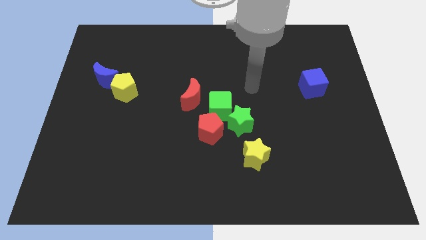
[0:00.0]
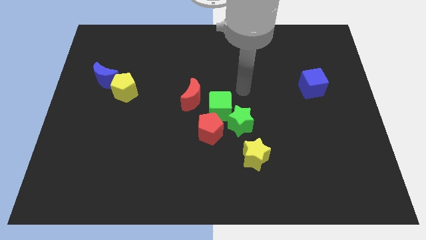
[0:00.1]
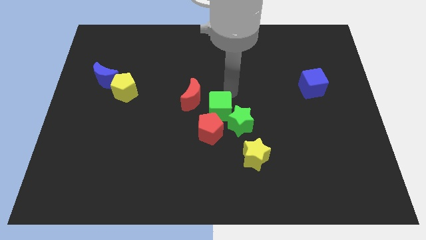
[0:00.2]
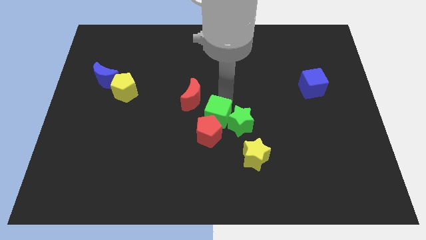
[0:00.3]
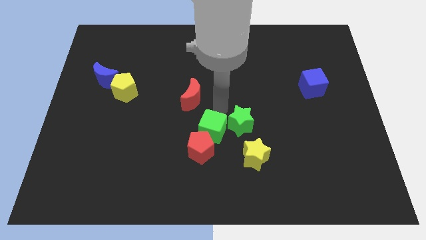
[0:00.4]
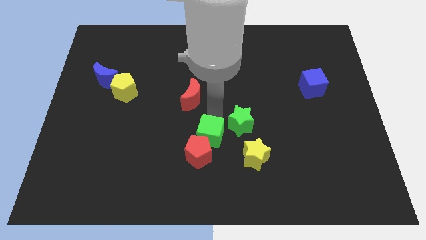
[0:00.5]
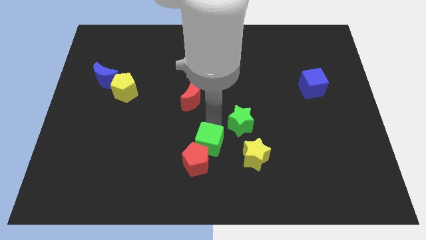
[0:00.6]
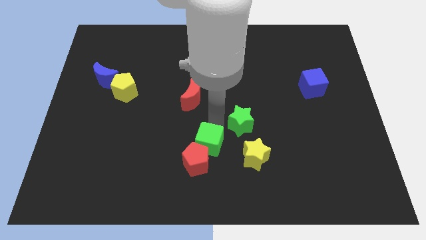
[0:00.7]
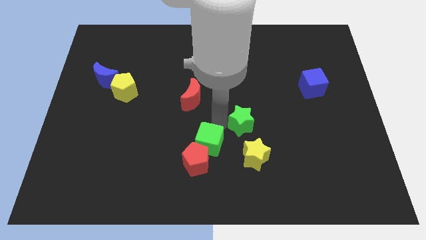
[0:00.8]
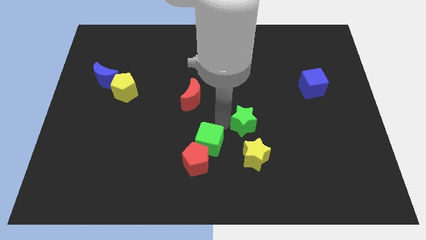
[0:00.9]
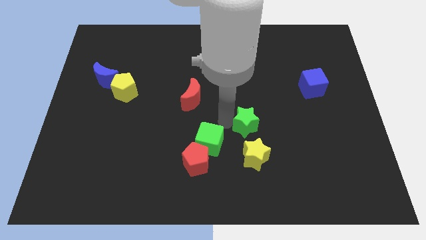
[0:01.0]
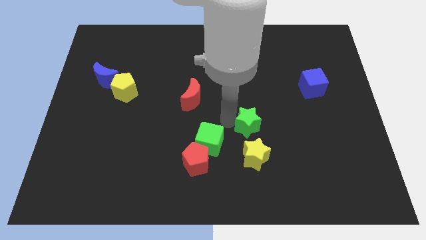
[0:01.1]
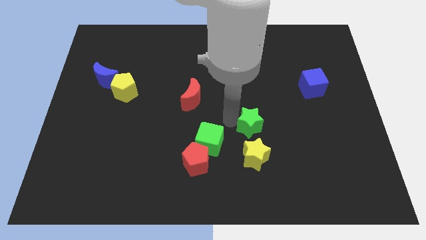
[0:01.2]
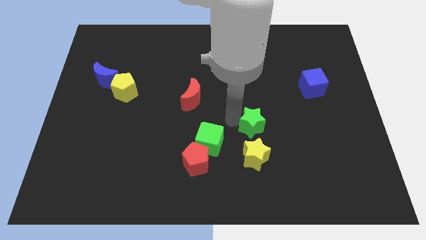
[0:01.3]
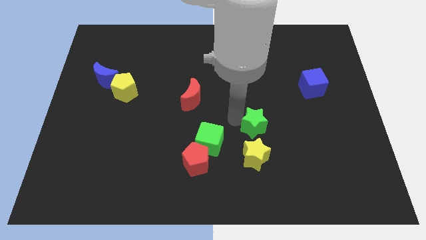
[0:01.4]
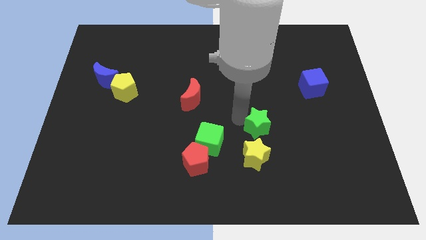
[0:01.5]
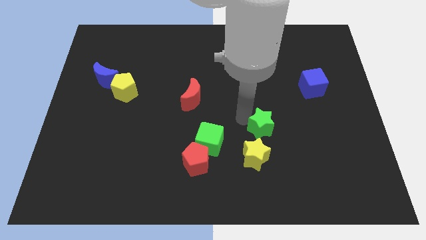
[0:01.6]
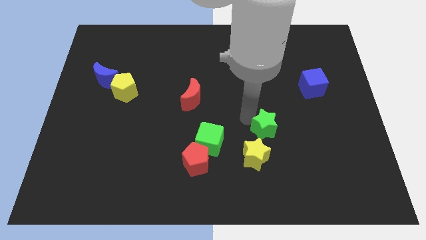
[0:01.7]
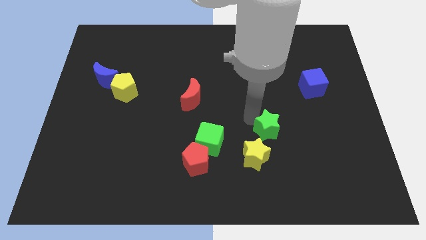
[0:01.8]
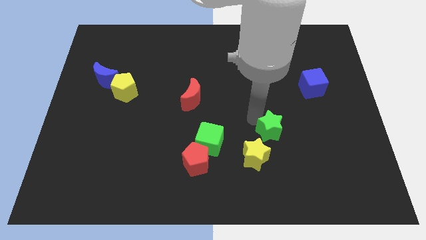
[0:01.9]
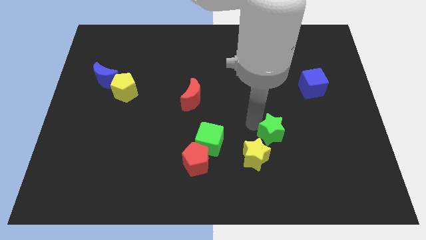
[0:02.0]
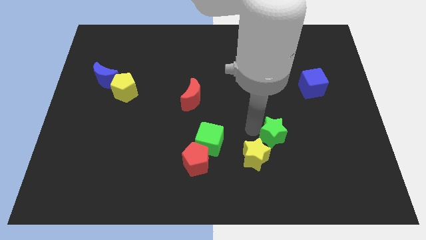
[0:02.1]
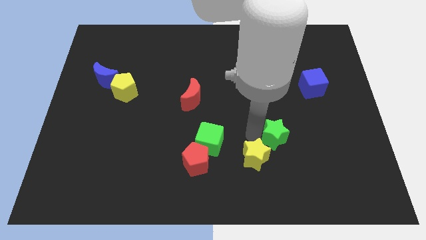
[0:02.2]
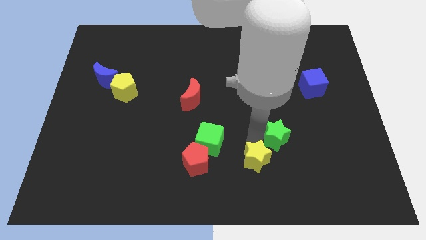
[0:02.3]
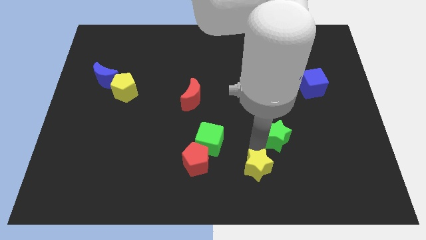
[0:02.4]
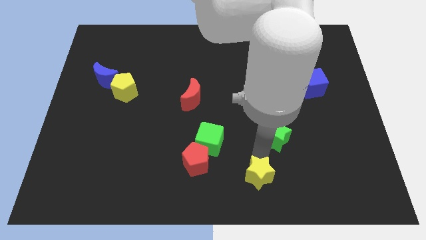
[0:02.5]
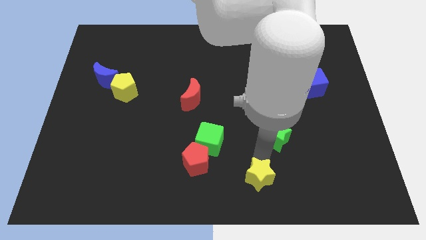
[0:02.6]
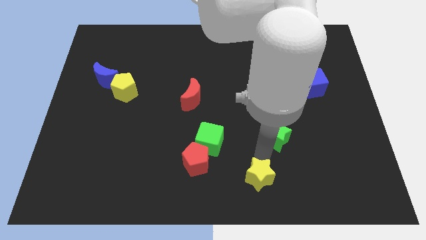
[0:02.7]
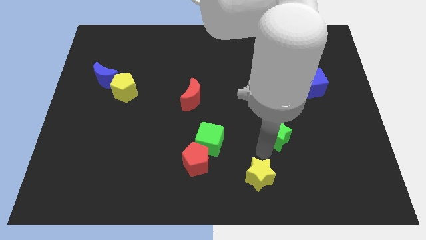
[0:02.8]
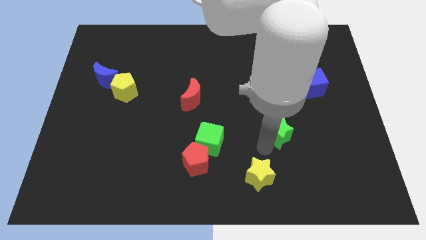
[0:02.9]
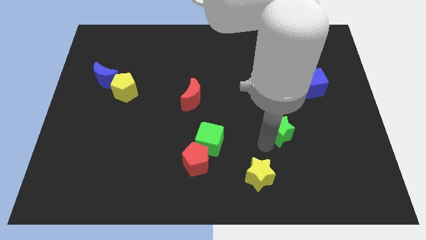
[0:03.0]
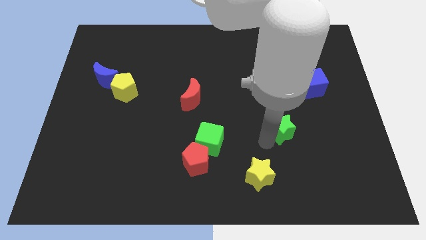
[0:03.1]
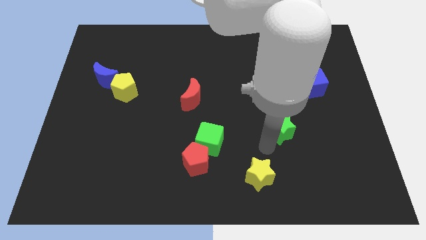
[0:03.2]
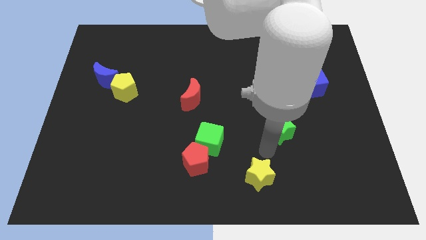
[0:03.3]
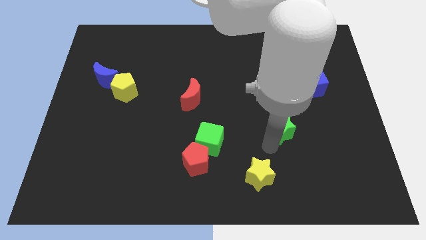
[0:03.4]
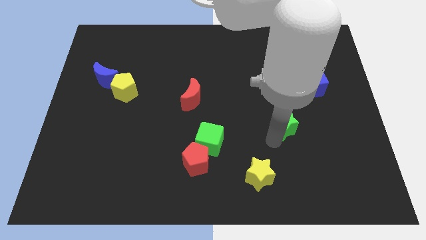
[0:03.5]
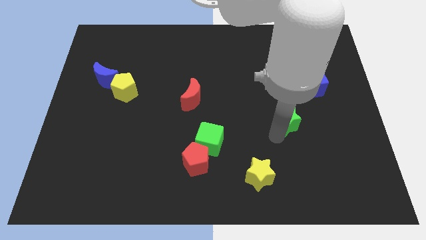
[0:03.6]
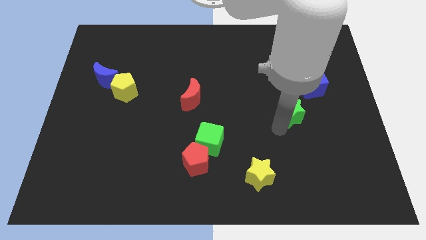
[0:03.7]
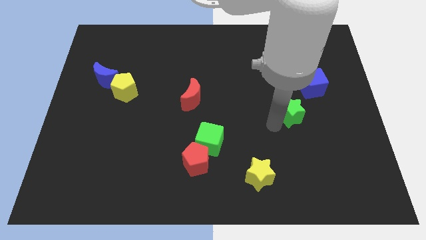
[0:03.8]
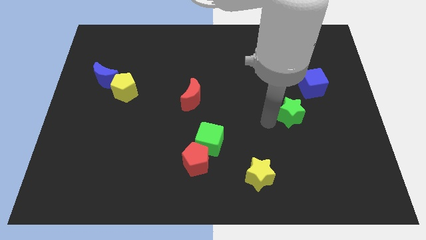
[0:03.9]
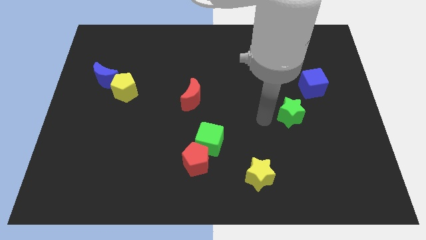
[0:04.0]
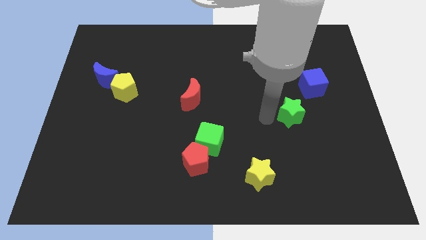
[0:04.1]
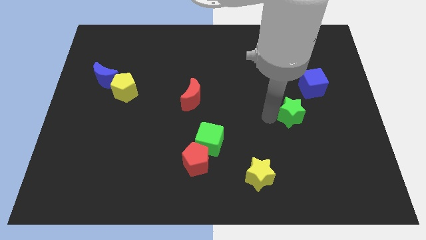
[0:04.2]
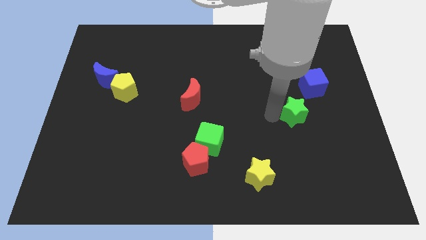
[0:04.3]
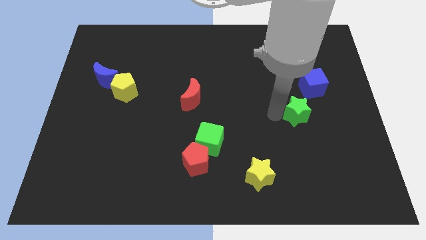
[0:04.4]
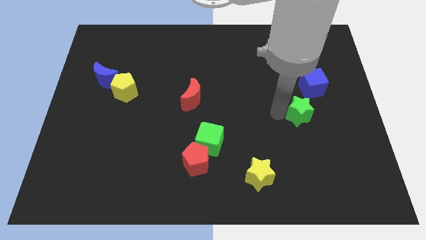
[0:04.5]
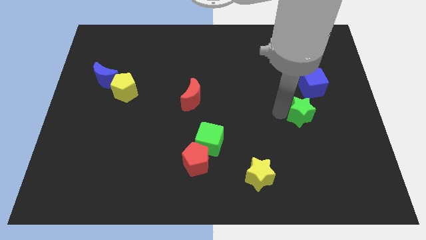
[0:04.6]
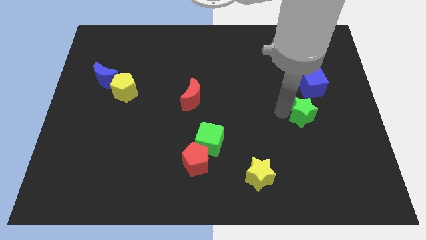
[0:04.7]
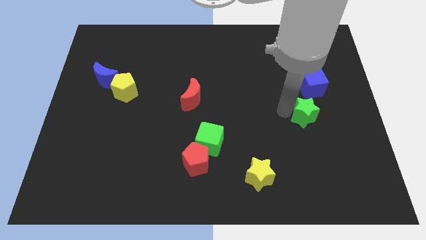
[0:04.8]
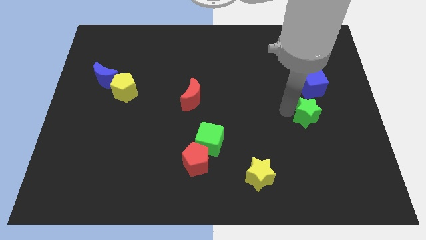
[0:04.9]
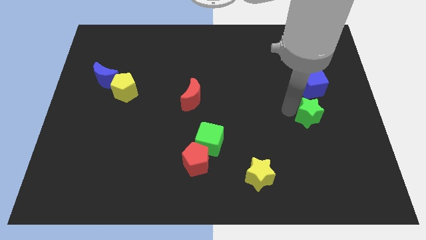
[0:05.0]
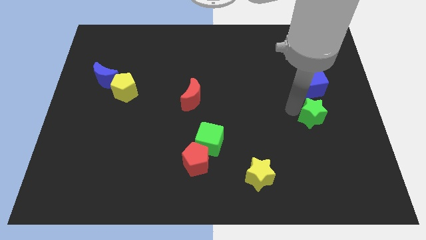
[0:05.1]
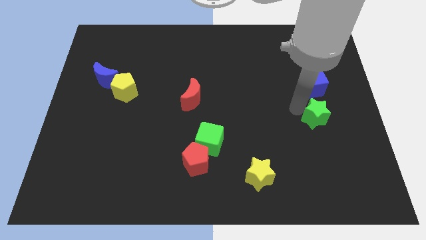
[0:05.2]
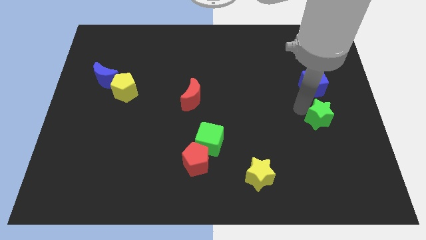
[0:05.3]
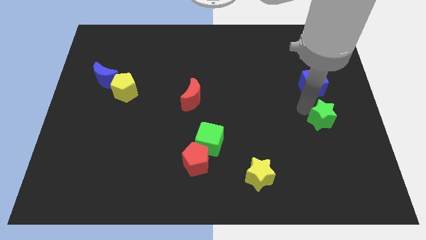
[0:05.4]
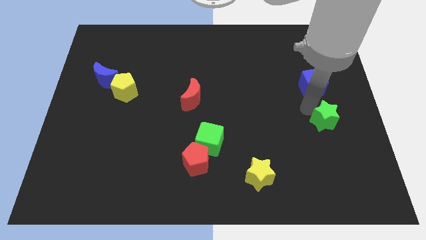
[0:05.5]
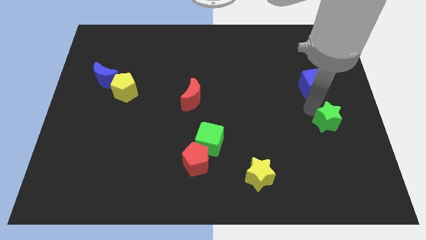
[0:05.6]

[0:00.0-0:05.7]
move the green star to the right side

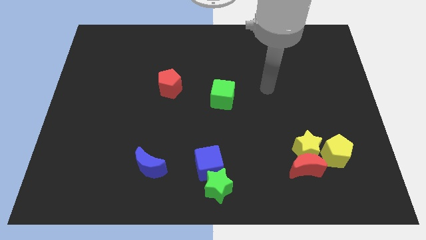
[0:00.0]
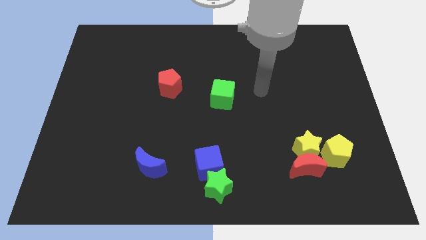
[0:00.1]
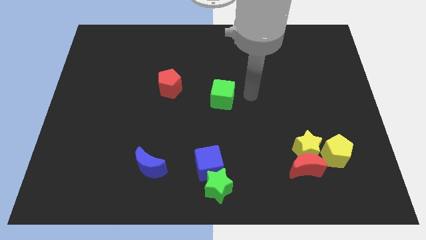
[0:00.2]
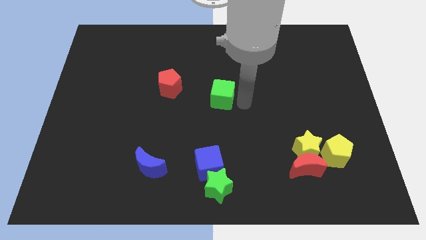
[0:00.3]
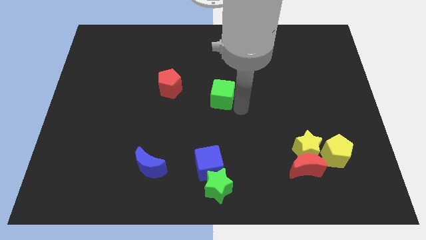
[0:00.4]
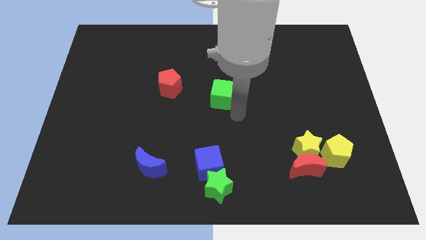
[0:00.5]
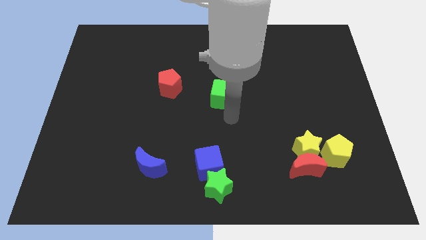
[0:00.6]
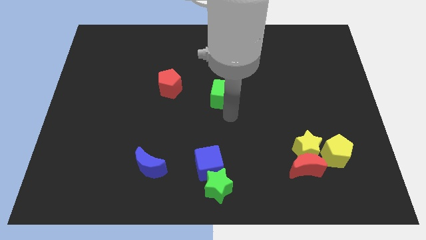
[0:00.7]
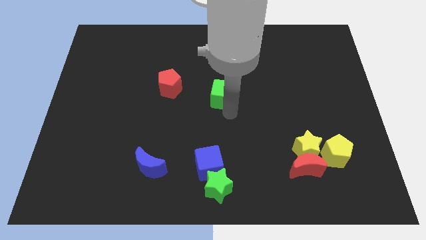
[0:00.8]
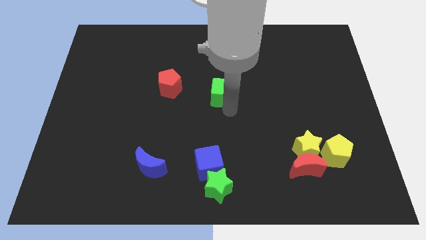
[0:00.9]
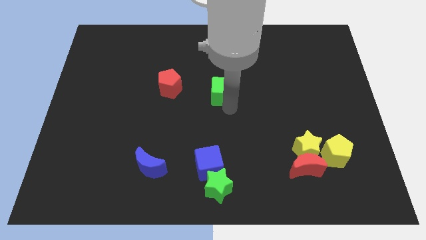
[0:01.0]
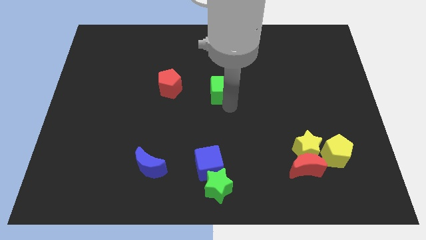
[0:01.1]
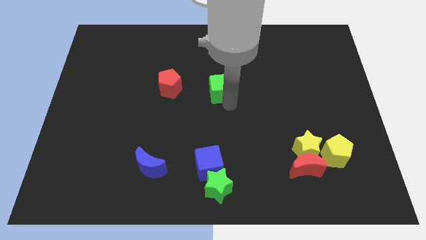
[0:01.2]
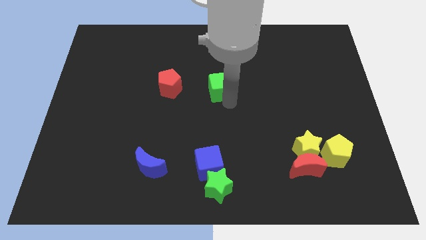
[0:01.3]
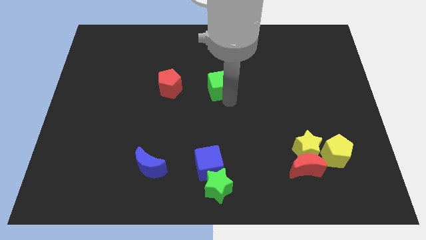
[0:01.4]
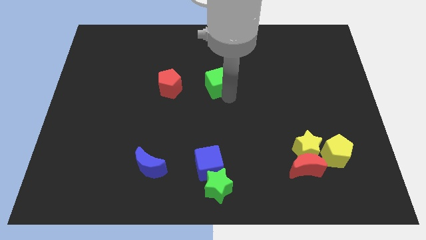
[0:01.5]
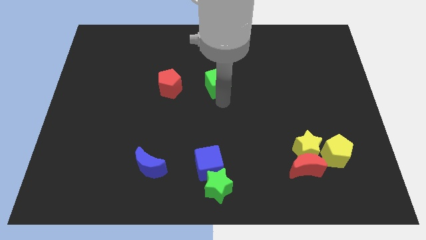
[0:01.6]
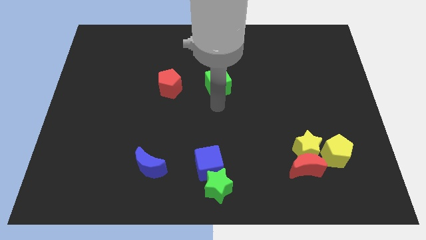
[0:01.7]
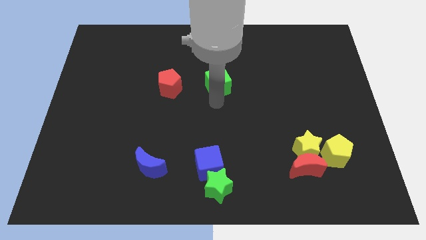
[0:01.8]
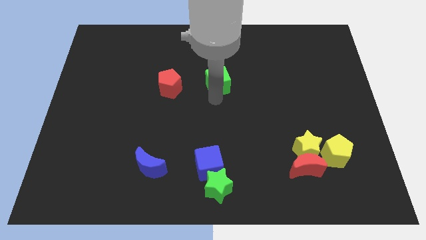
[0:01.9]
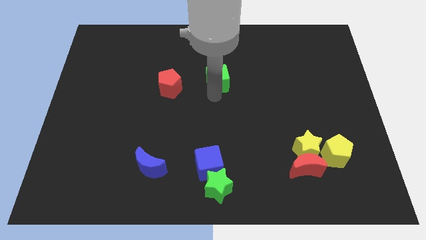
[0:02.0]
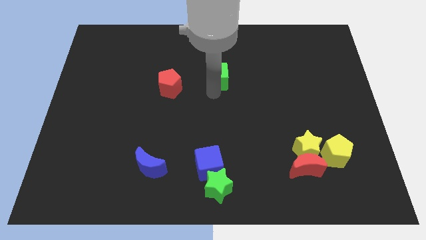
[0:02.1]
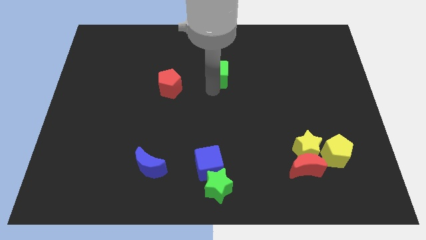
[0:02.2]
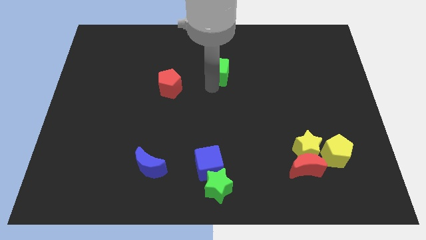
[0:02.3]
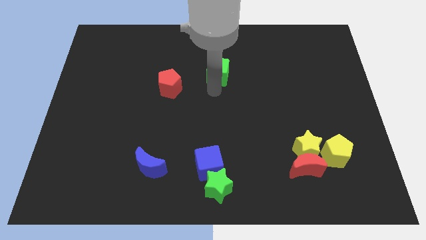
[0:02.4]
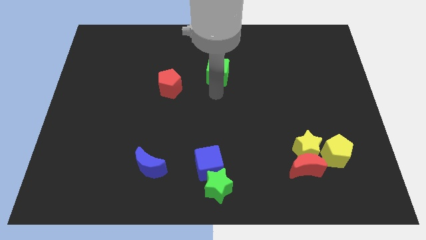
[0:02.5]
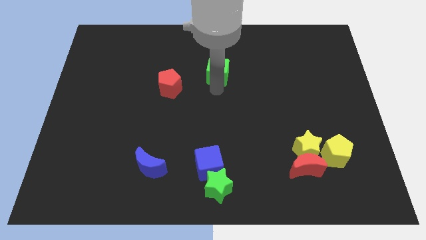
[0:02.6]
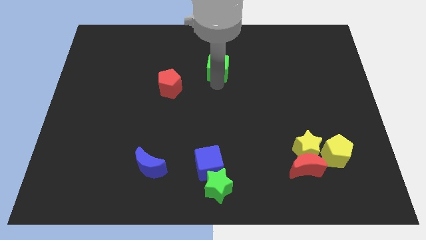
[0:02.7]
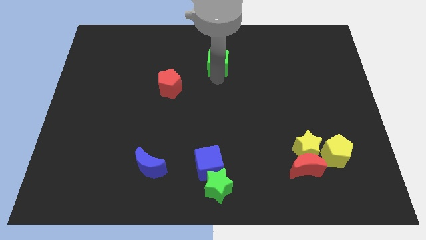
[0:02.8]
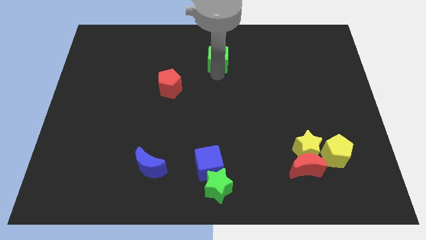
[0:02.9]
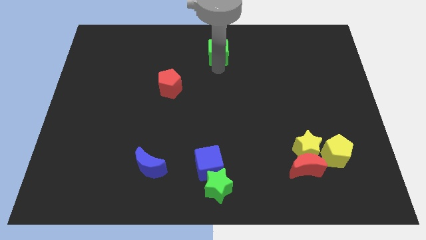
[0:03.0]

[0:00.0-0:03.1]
push the green cube to the towards your base
